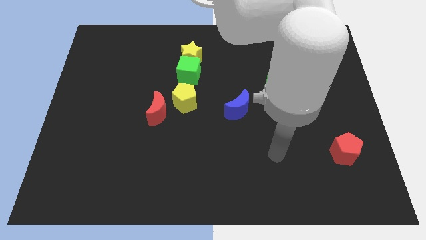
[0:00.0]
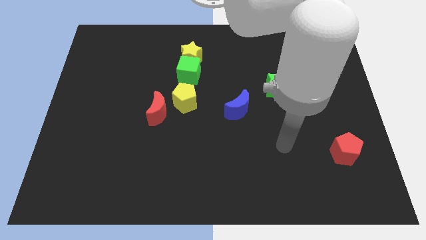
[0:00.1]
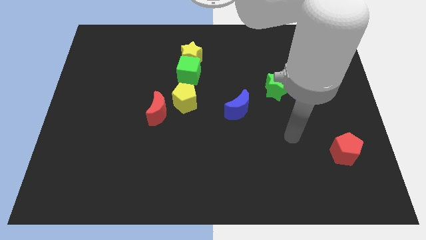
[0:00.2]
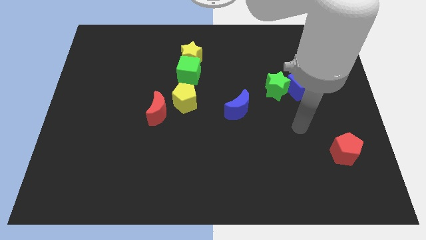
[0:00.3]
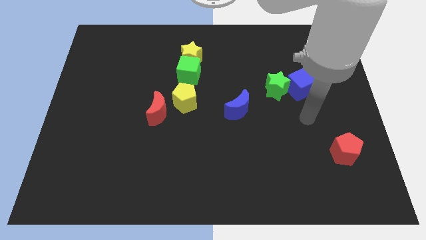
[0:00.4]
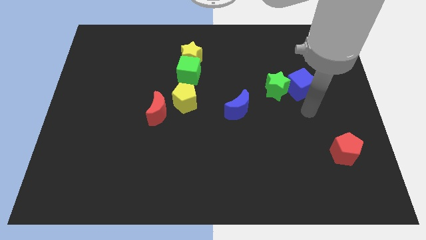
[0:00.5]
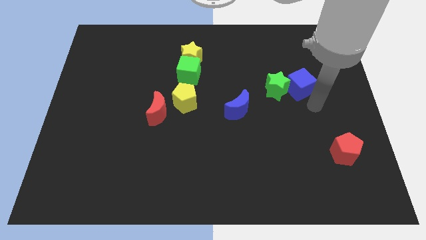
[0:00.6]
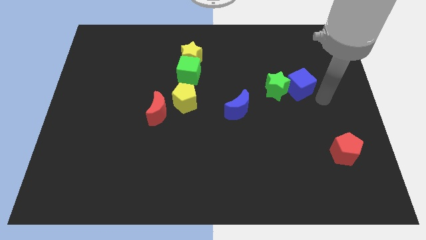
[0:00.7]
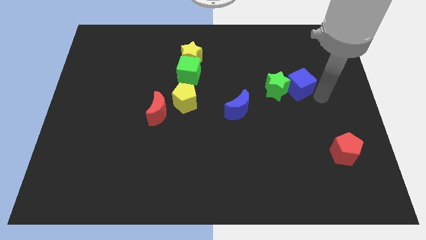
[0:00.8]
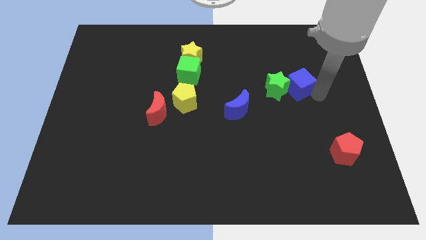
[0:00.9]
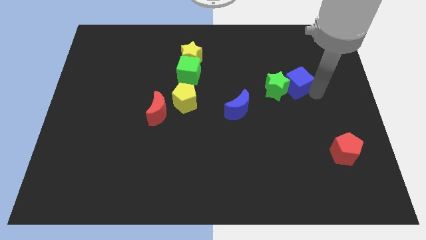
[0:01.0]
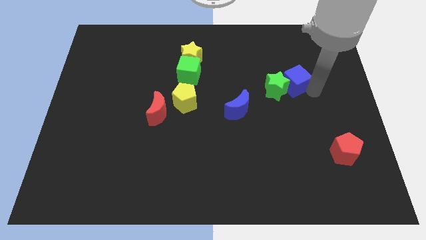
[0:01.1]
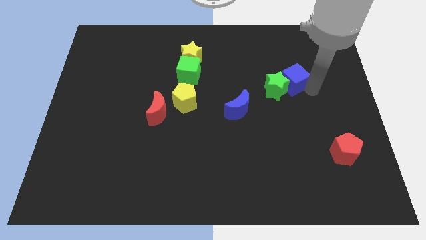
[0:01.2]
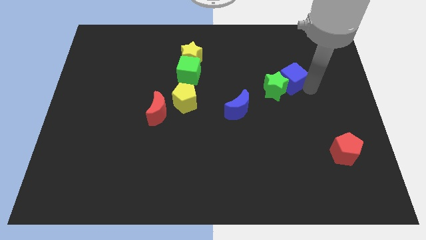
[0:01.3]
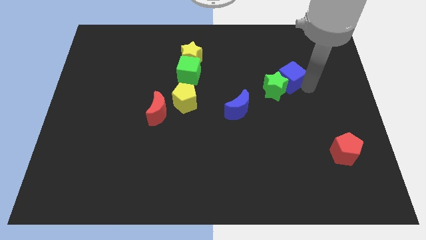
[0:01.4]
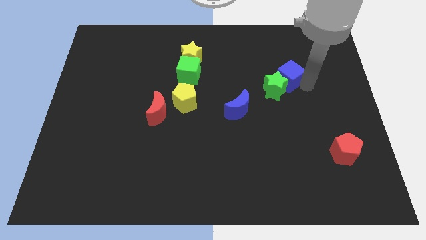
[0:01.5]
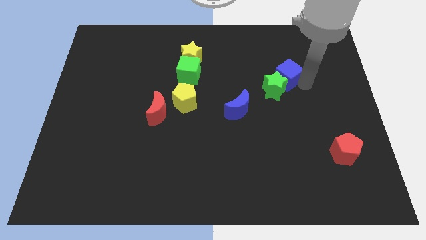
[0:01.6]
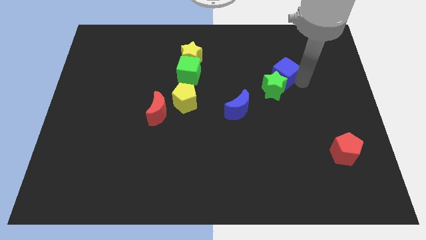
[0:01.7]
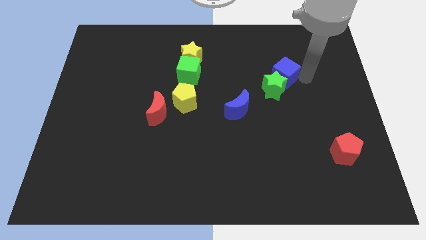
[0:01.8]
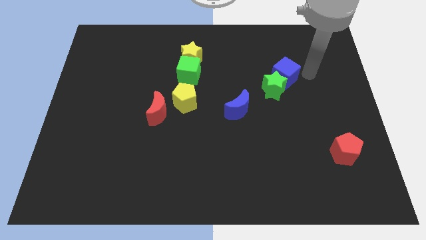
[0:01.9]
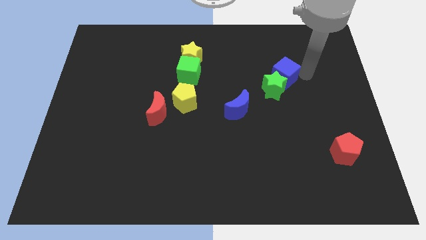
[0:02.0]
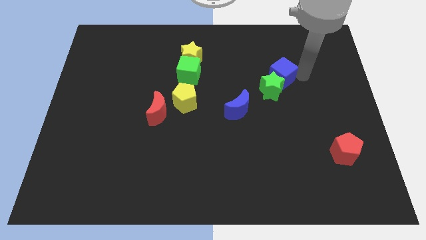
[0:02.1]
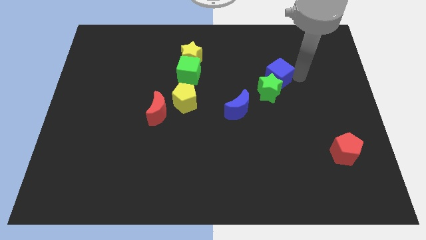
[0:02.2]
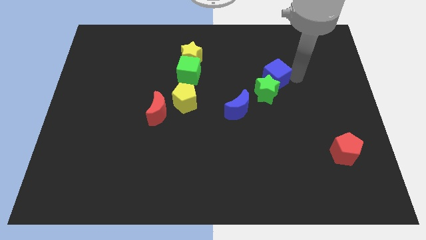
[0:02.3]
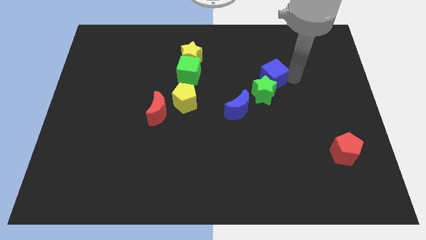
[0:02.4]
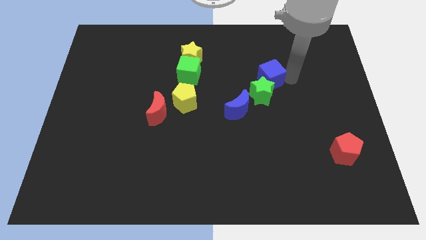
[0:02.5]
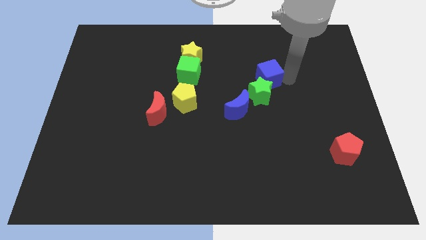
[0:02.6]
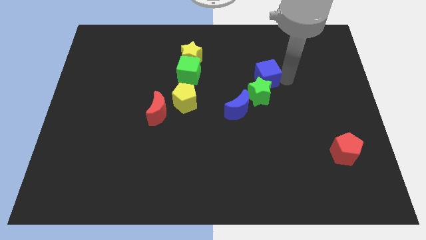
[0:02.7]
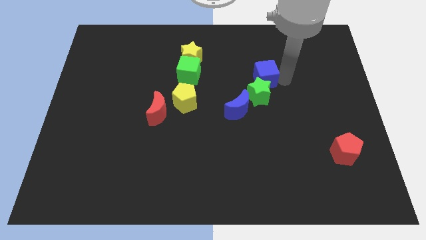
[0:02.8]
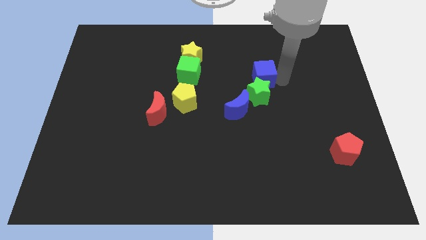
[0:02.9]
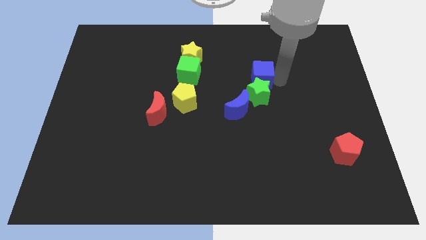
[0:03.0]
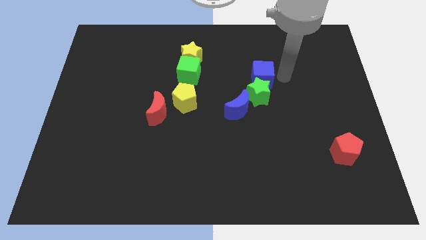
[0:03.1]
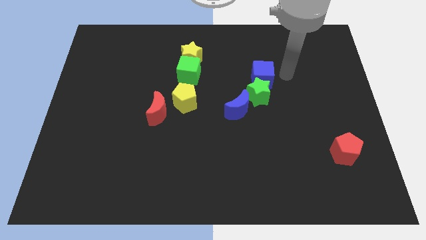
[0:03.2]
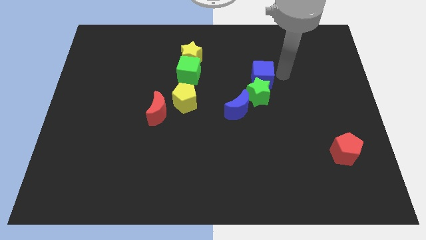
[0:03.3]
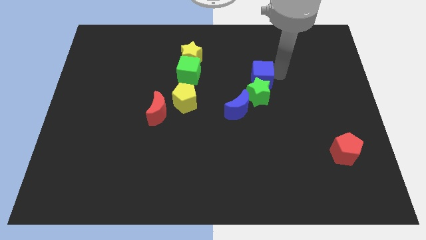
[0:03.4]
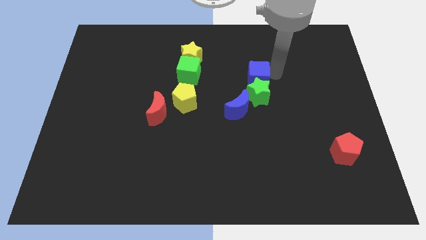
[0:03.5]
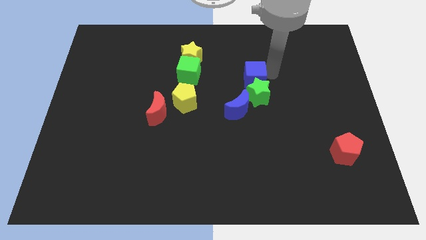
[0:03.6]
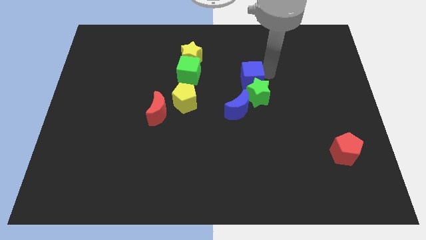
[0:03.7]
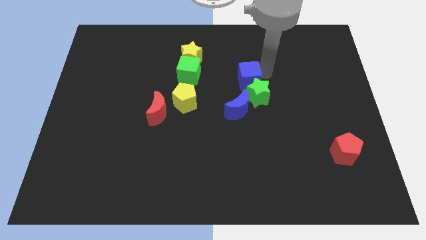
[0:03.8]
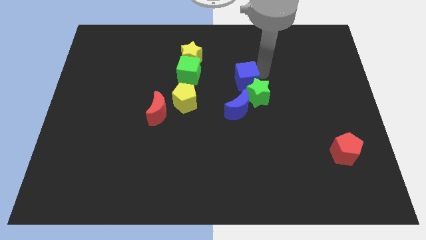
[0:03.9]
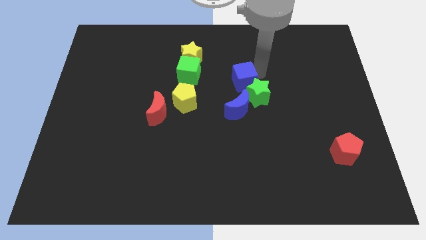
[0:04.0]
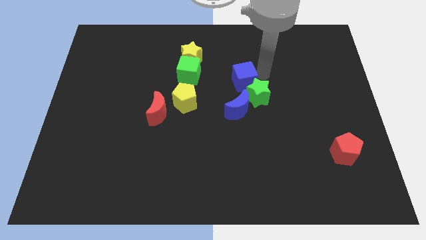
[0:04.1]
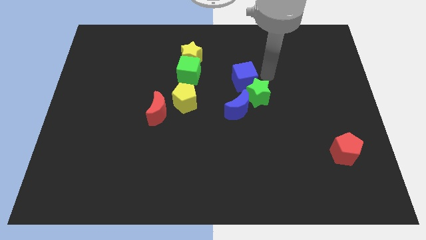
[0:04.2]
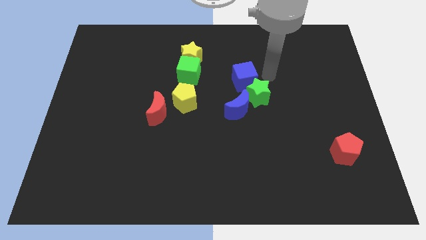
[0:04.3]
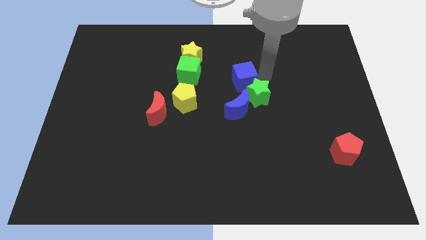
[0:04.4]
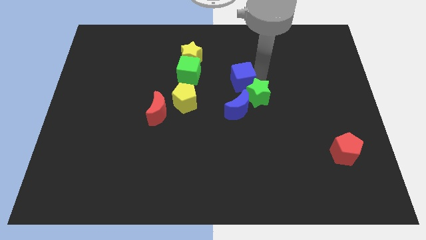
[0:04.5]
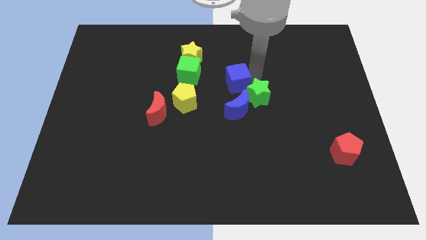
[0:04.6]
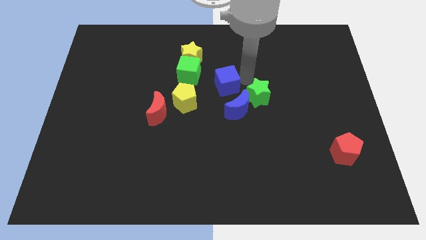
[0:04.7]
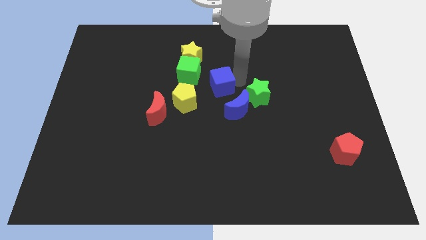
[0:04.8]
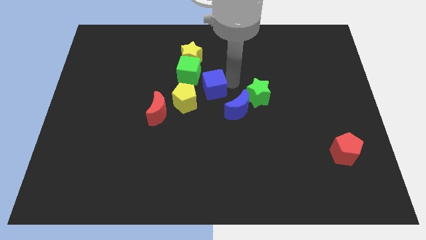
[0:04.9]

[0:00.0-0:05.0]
slide the blue cube to the left

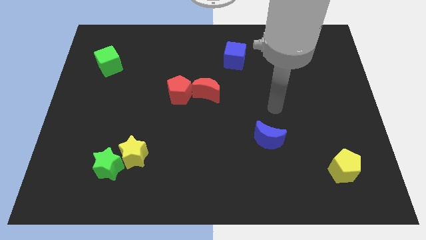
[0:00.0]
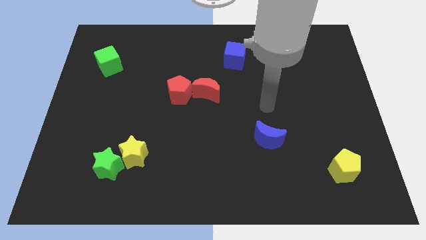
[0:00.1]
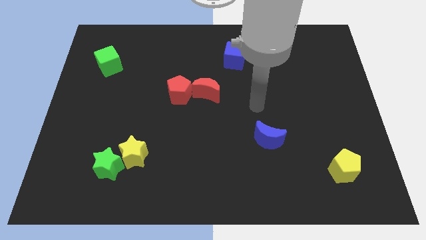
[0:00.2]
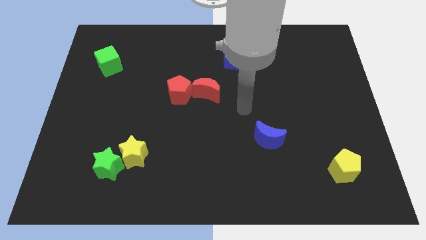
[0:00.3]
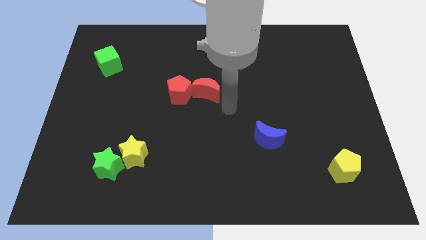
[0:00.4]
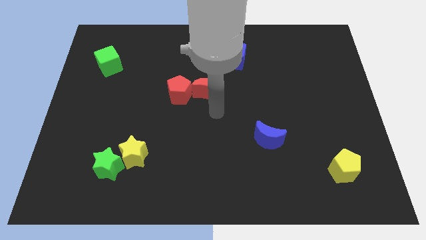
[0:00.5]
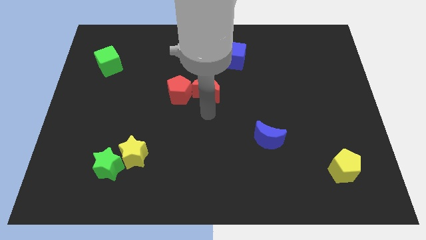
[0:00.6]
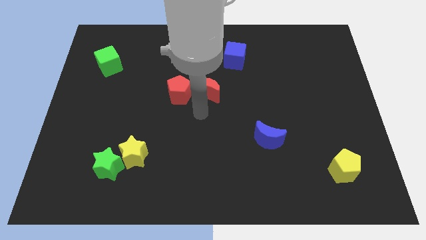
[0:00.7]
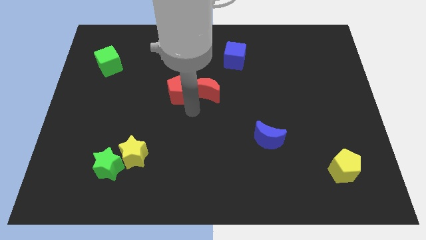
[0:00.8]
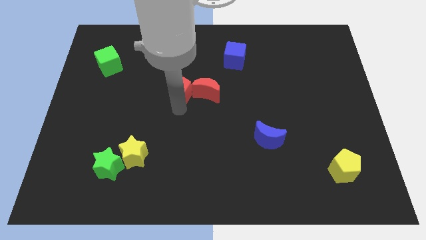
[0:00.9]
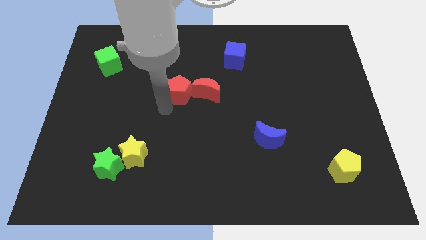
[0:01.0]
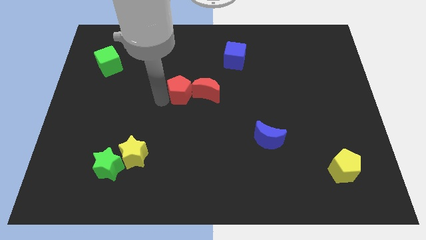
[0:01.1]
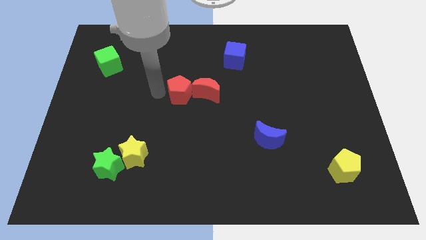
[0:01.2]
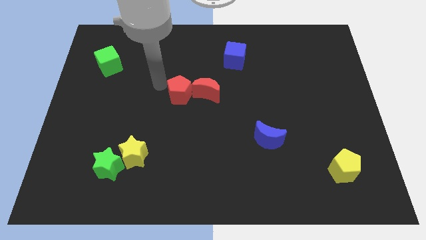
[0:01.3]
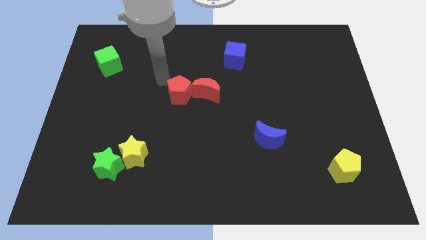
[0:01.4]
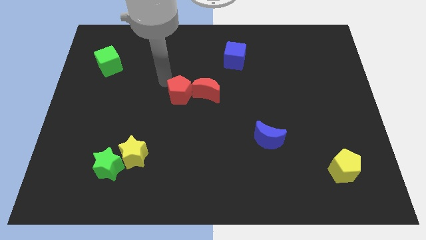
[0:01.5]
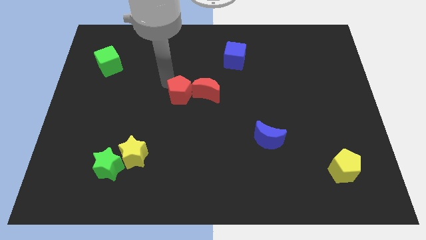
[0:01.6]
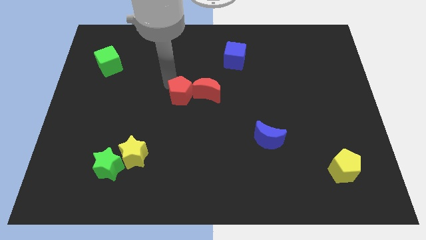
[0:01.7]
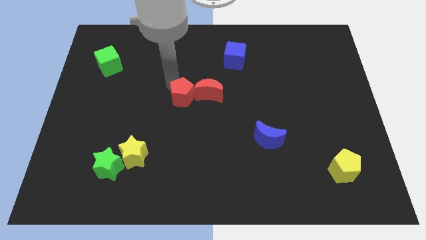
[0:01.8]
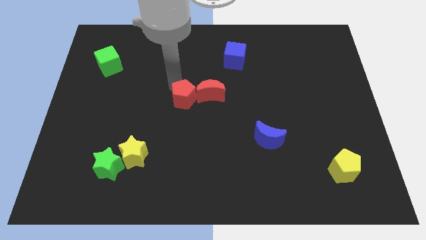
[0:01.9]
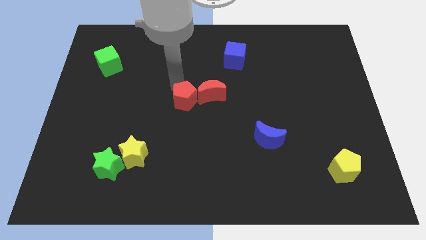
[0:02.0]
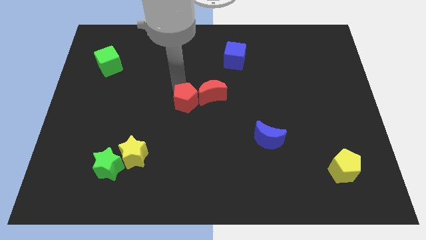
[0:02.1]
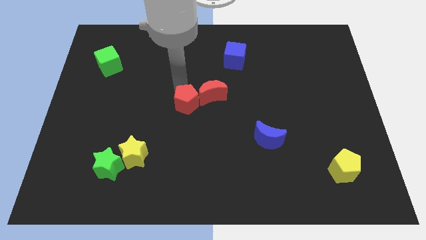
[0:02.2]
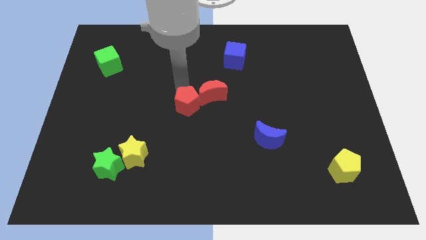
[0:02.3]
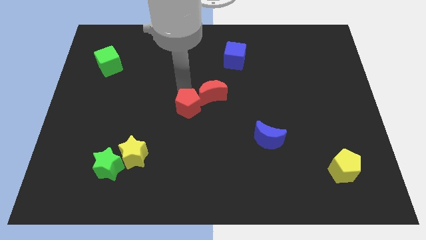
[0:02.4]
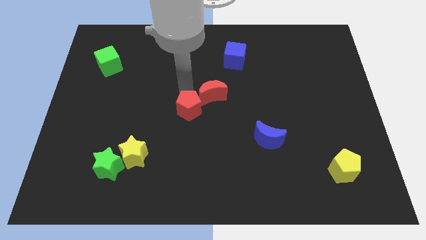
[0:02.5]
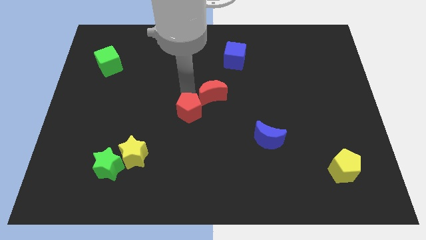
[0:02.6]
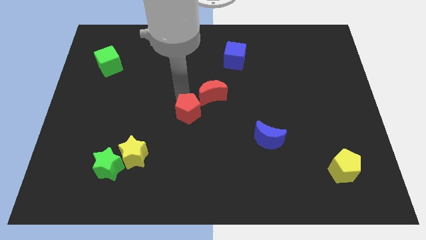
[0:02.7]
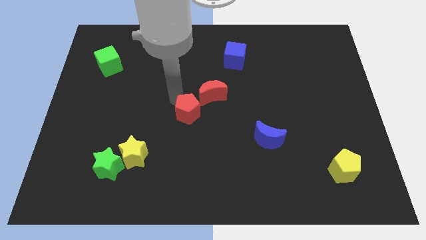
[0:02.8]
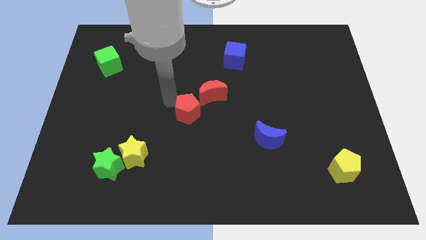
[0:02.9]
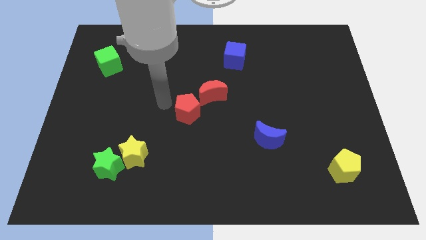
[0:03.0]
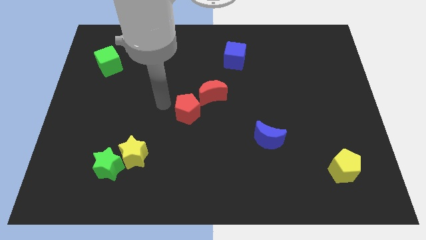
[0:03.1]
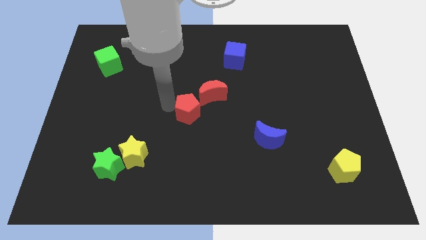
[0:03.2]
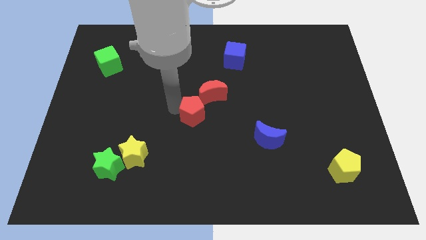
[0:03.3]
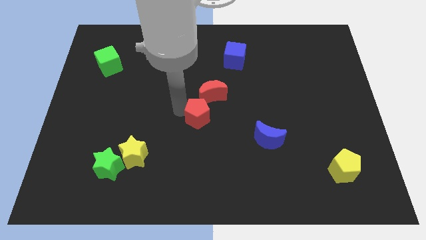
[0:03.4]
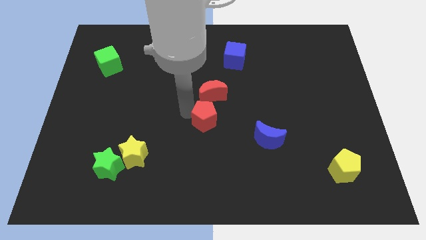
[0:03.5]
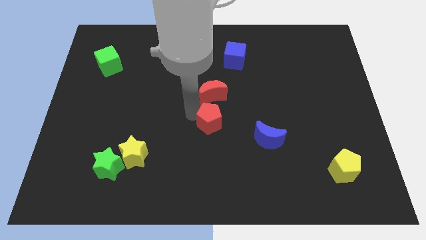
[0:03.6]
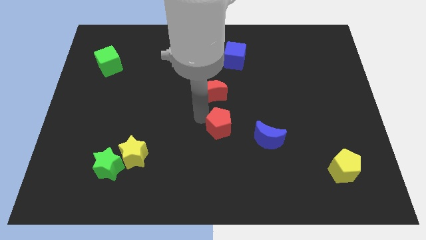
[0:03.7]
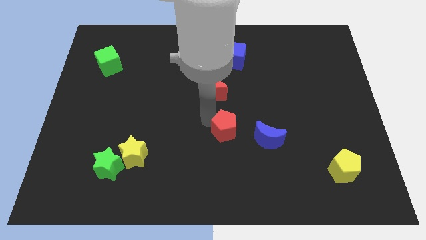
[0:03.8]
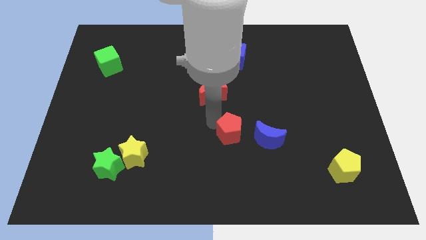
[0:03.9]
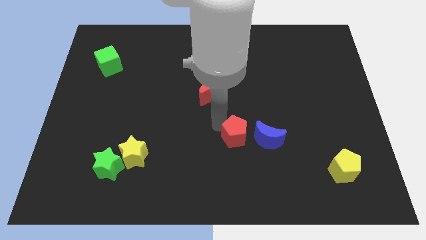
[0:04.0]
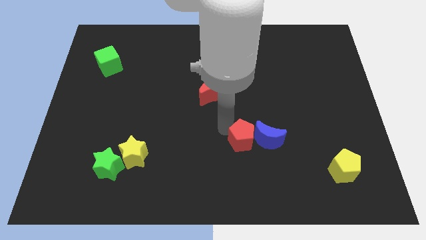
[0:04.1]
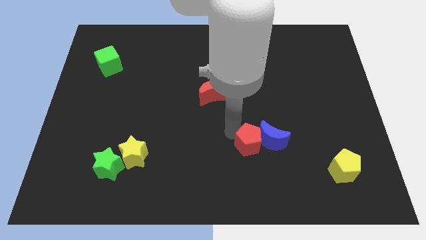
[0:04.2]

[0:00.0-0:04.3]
push the red pentagon down and then right
